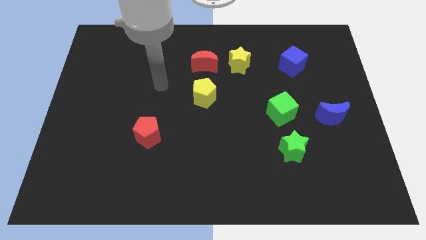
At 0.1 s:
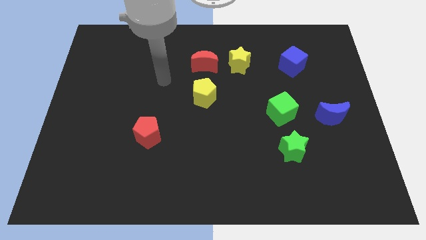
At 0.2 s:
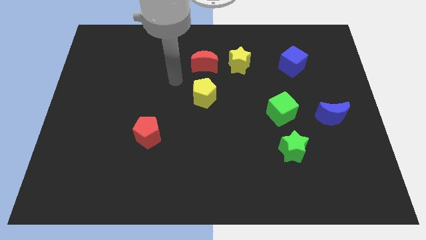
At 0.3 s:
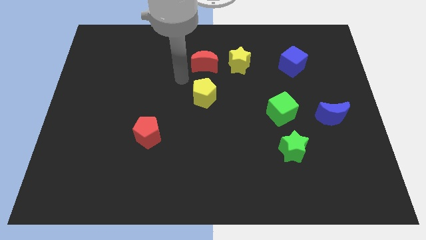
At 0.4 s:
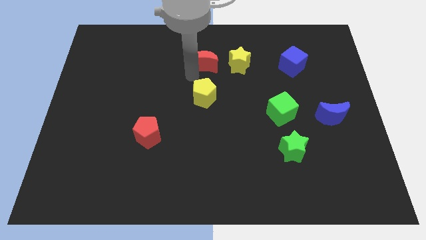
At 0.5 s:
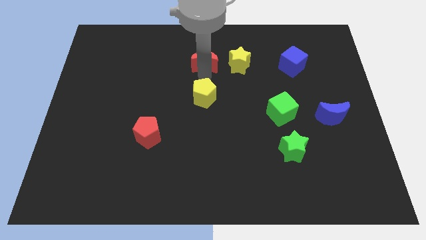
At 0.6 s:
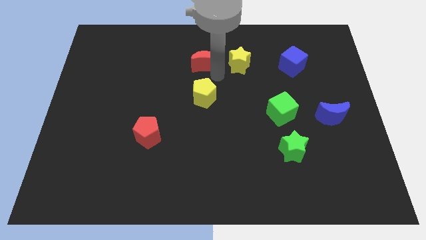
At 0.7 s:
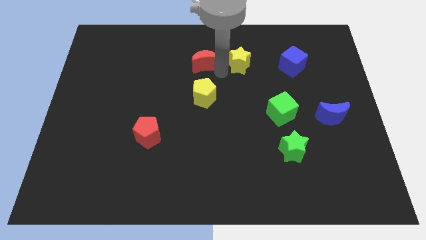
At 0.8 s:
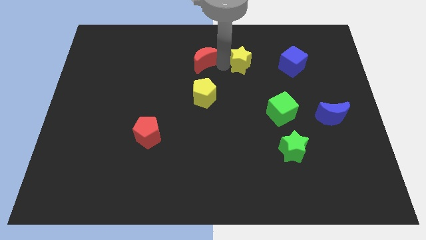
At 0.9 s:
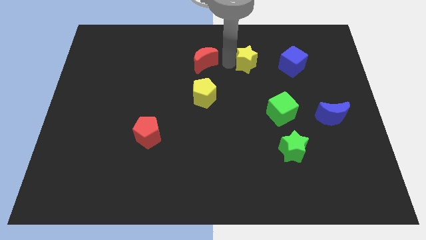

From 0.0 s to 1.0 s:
move the red moon away from the yellow star

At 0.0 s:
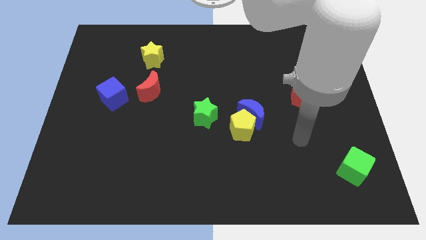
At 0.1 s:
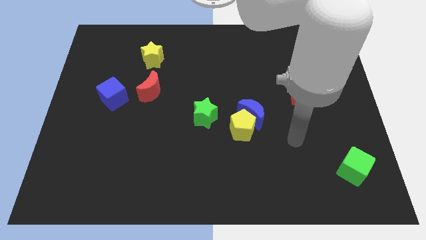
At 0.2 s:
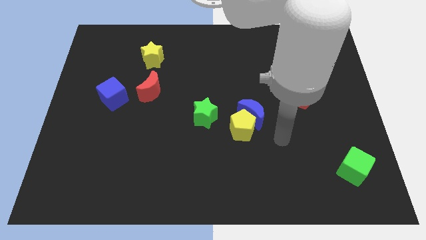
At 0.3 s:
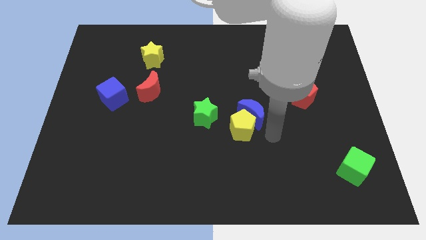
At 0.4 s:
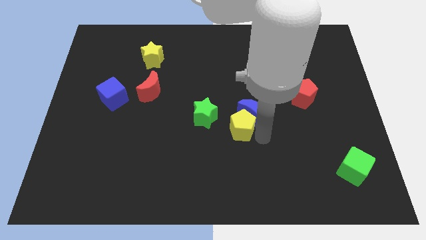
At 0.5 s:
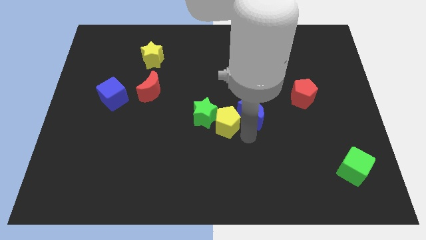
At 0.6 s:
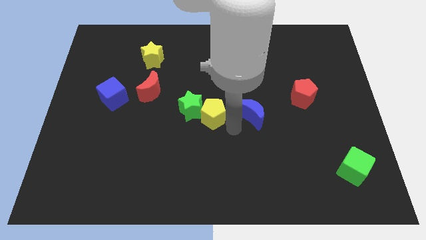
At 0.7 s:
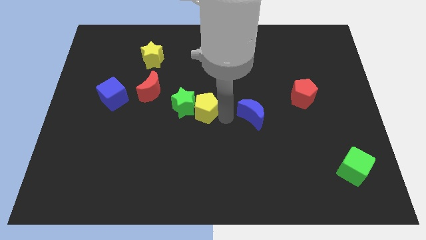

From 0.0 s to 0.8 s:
separate the blue moon from the yellow pentagon

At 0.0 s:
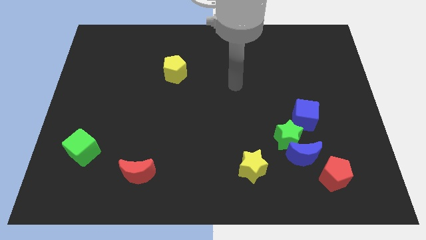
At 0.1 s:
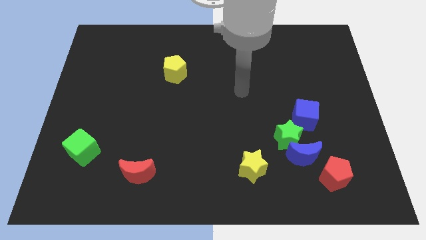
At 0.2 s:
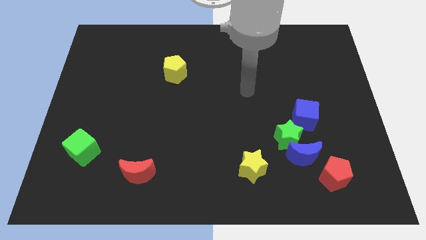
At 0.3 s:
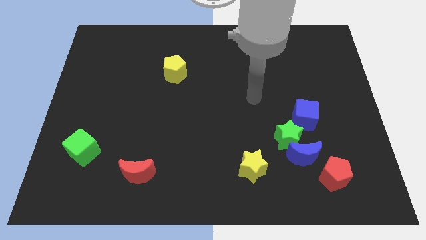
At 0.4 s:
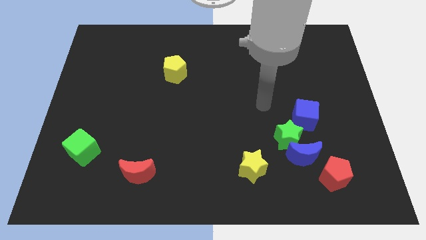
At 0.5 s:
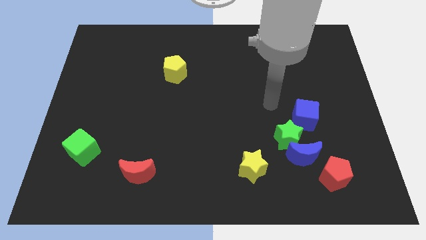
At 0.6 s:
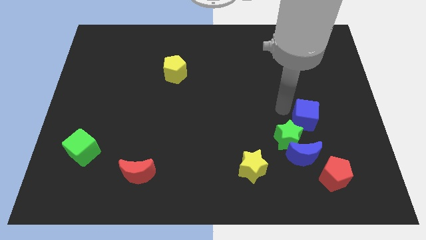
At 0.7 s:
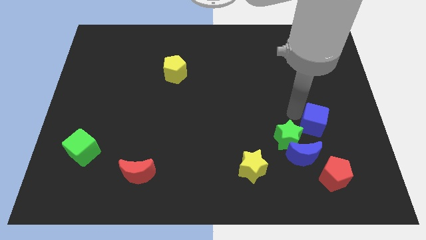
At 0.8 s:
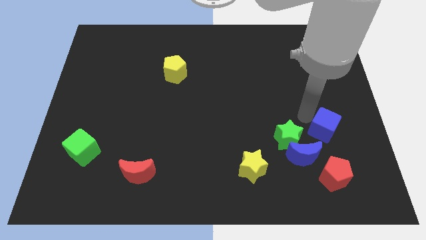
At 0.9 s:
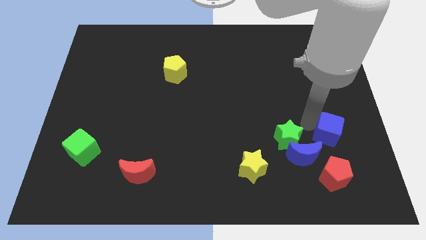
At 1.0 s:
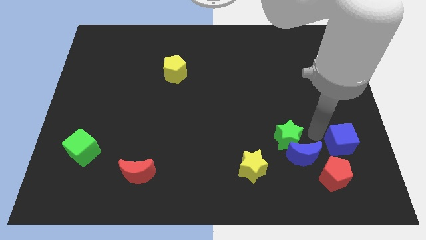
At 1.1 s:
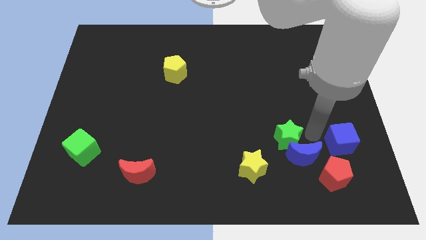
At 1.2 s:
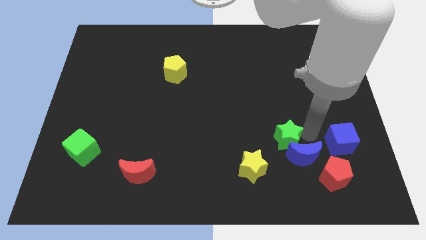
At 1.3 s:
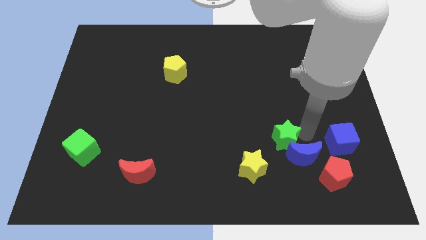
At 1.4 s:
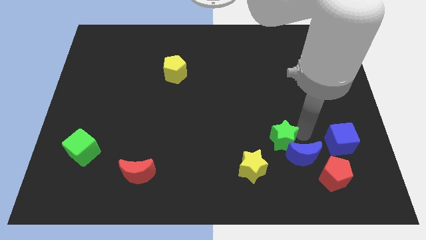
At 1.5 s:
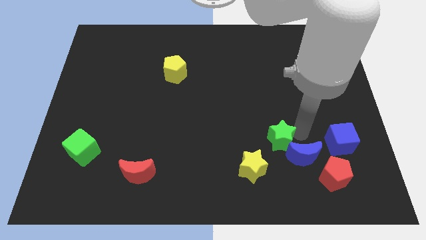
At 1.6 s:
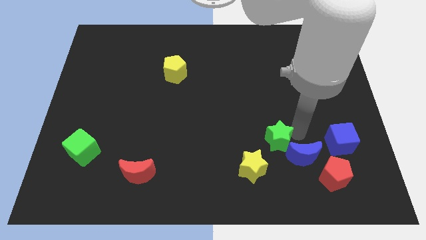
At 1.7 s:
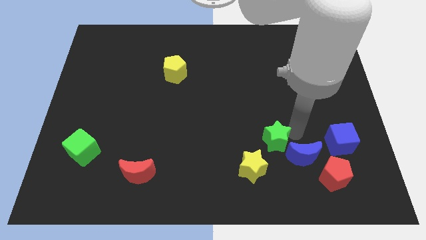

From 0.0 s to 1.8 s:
separate the green star from the blue moon and blue cube

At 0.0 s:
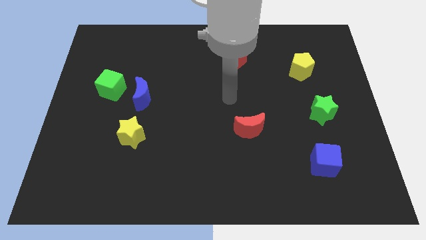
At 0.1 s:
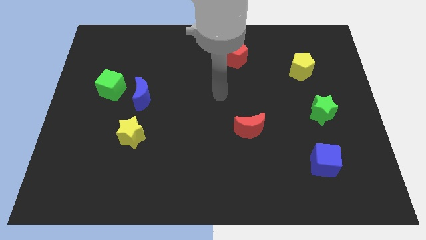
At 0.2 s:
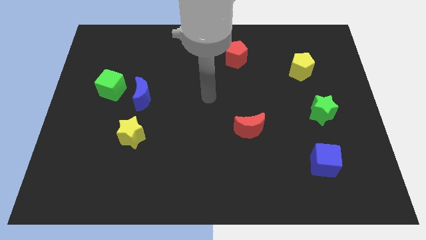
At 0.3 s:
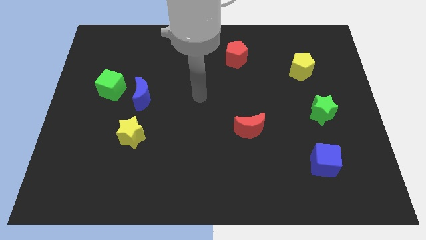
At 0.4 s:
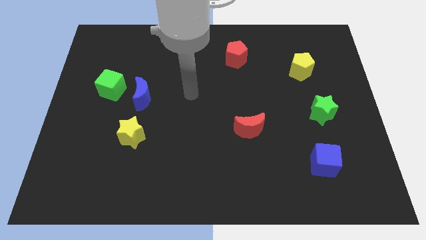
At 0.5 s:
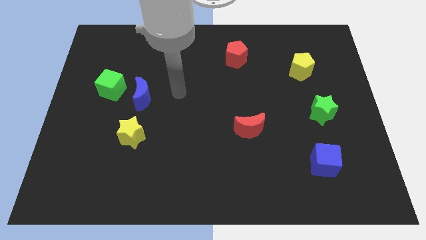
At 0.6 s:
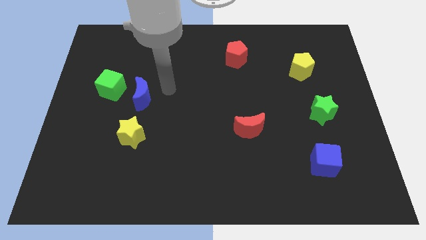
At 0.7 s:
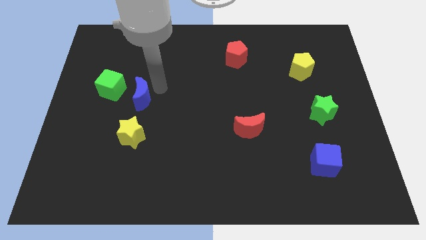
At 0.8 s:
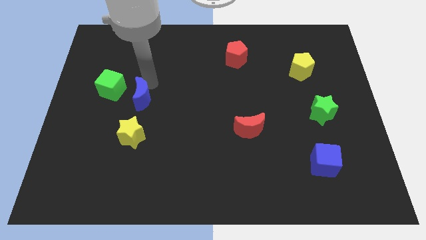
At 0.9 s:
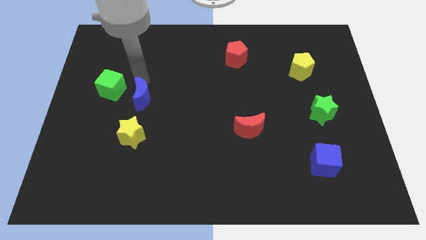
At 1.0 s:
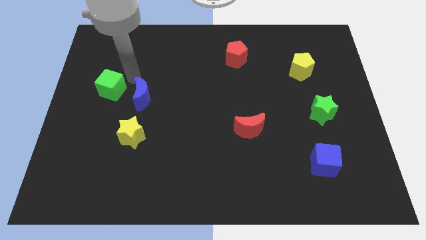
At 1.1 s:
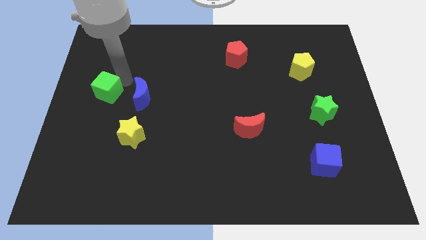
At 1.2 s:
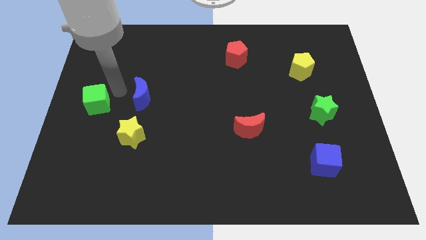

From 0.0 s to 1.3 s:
move the blue moon away from the green cube

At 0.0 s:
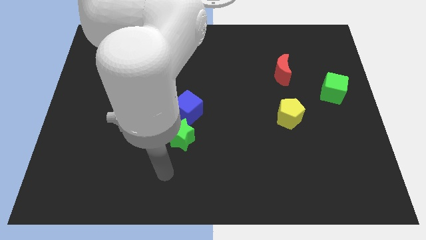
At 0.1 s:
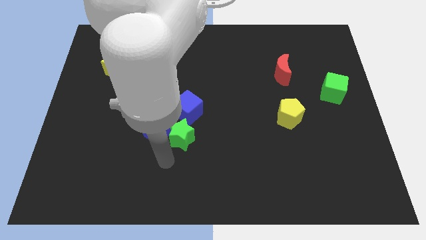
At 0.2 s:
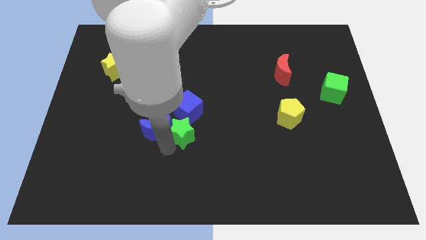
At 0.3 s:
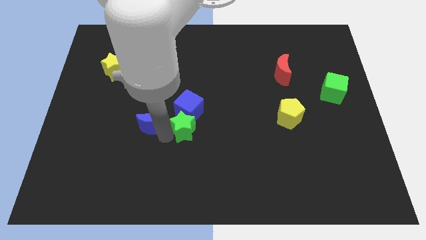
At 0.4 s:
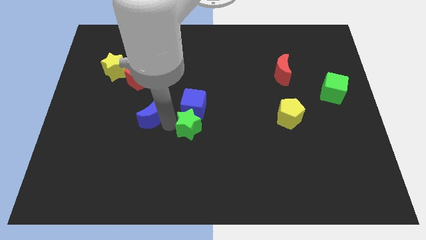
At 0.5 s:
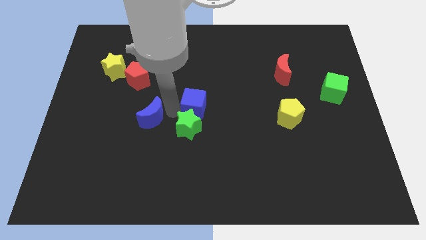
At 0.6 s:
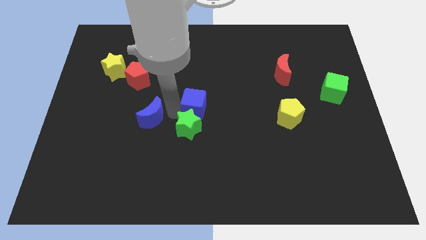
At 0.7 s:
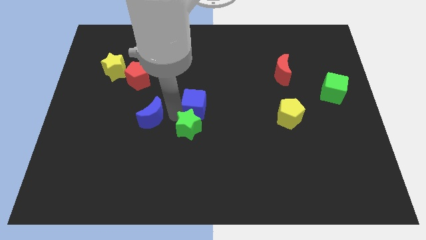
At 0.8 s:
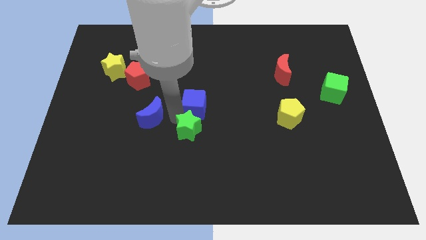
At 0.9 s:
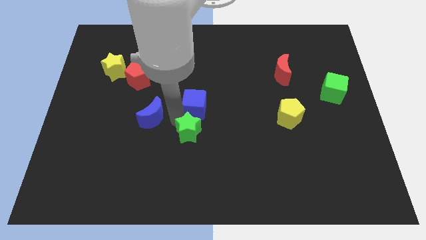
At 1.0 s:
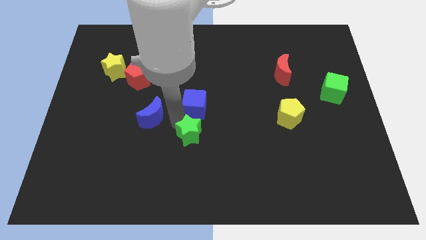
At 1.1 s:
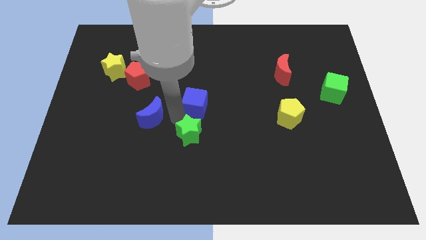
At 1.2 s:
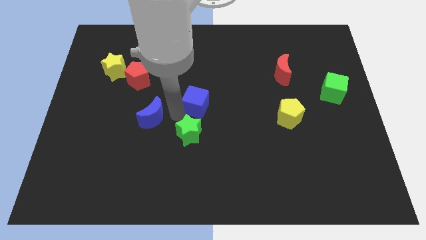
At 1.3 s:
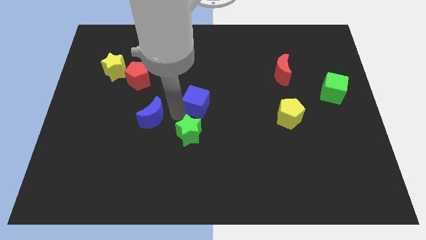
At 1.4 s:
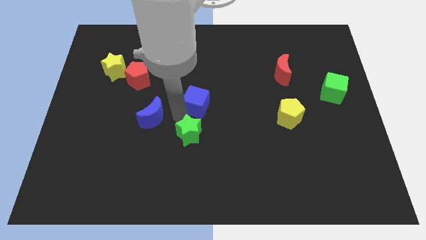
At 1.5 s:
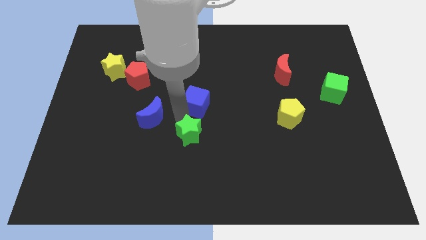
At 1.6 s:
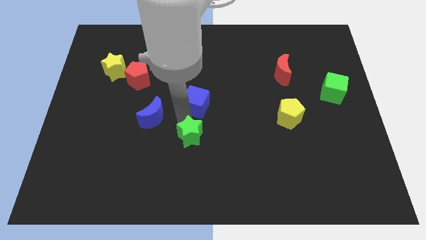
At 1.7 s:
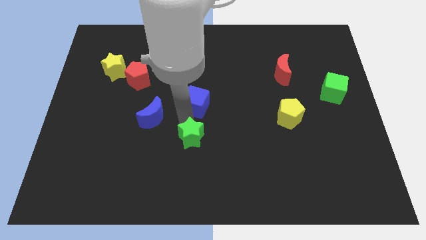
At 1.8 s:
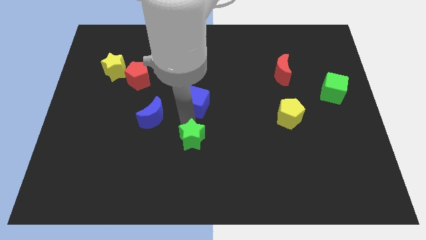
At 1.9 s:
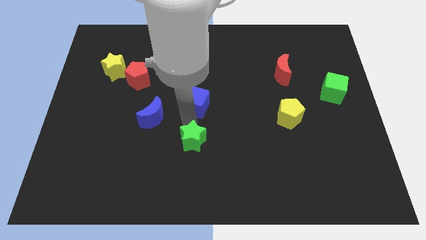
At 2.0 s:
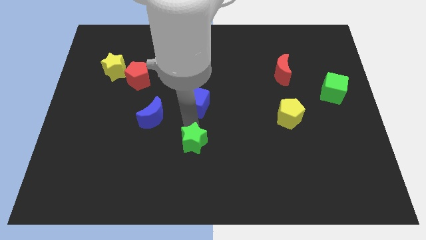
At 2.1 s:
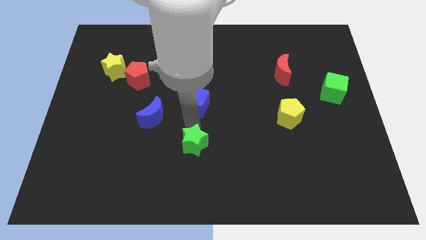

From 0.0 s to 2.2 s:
move the green star away from the blue moon and blue cube

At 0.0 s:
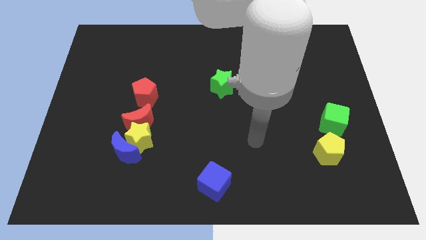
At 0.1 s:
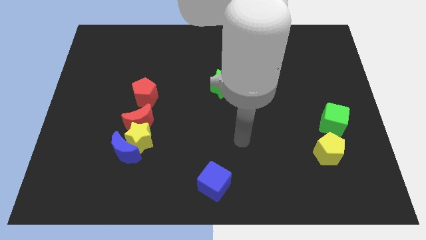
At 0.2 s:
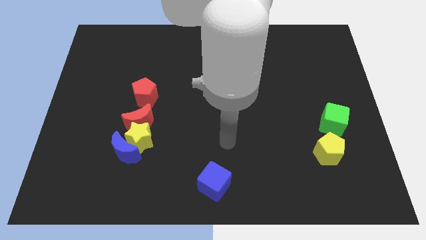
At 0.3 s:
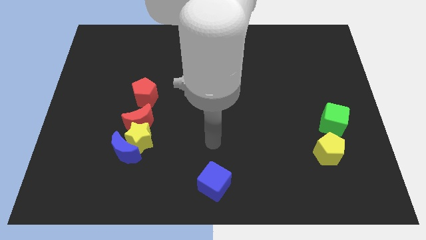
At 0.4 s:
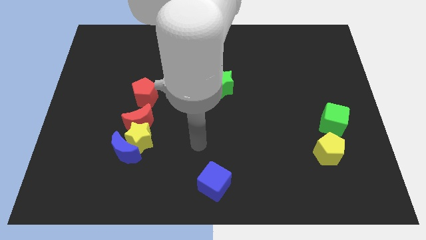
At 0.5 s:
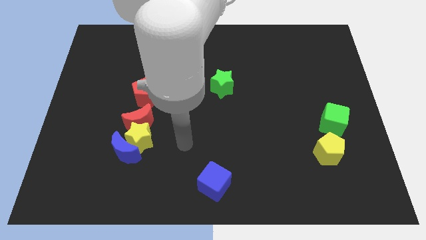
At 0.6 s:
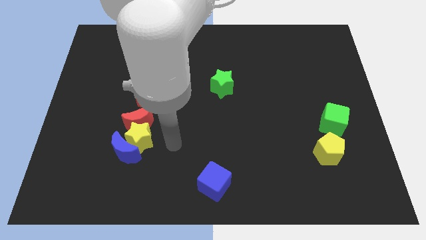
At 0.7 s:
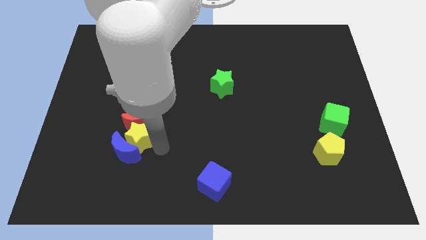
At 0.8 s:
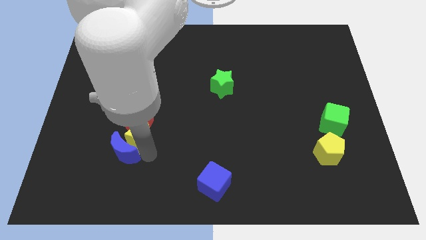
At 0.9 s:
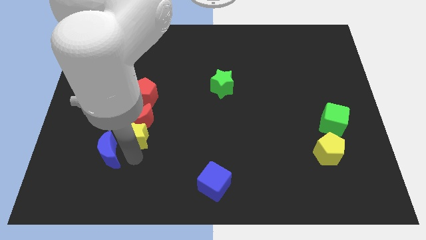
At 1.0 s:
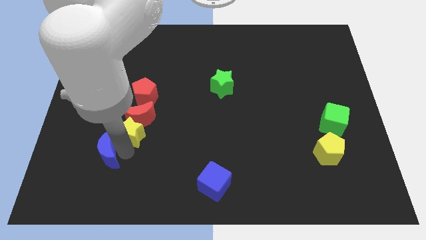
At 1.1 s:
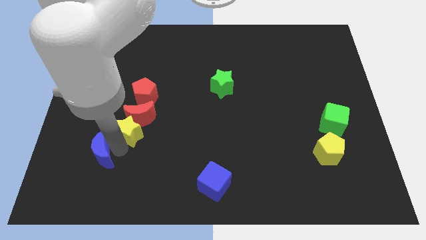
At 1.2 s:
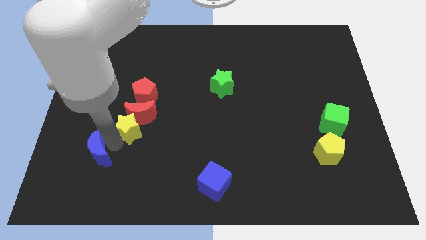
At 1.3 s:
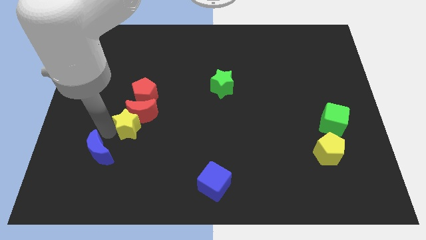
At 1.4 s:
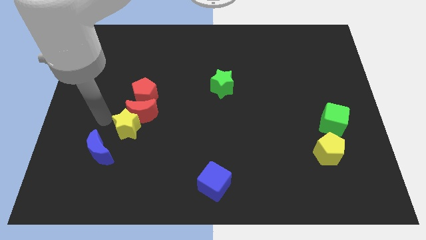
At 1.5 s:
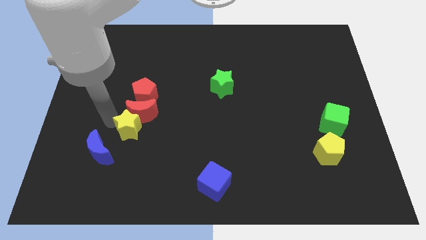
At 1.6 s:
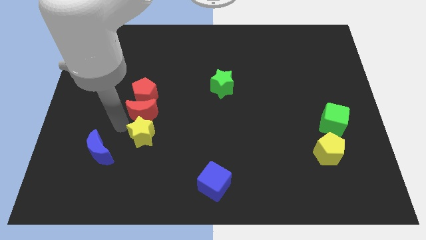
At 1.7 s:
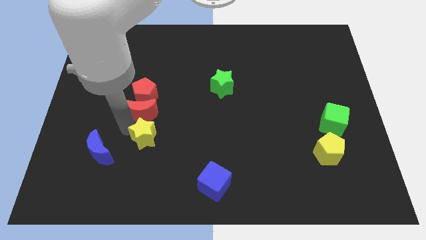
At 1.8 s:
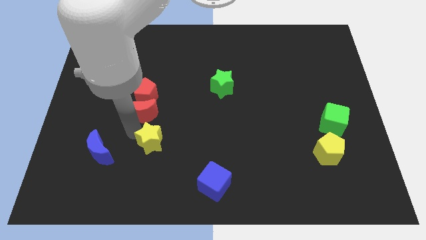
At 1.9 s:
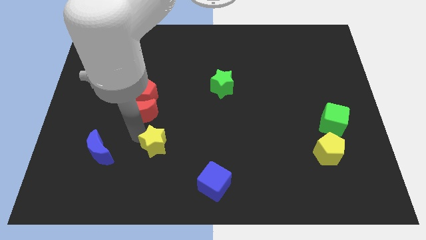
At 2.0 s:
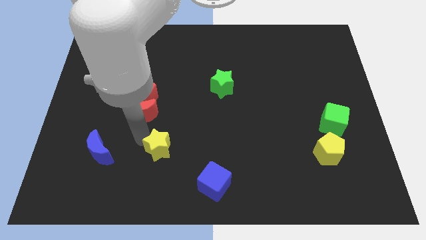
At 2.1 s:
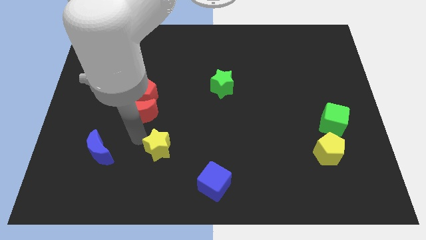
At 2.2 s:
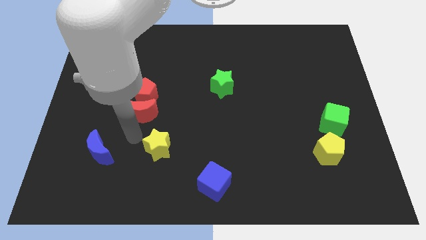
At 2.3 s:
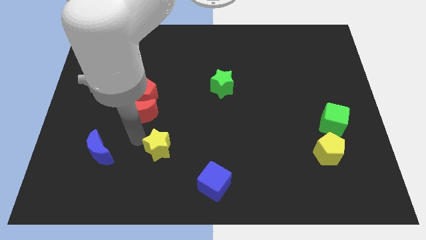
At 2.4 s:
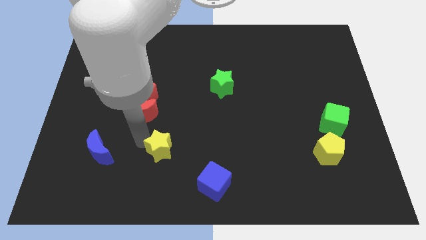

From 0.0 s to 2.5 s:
move the yellow star away from the blue moon and red moon
